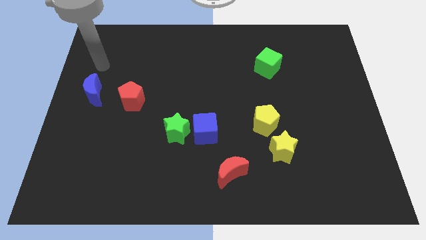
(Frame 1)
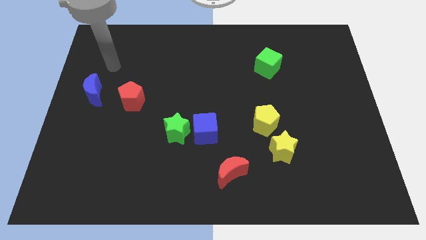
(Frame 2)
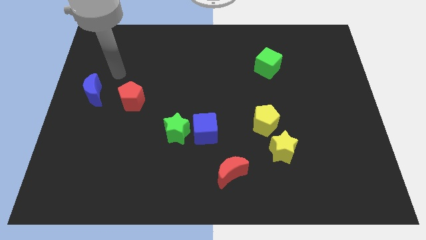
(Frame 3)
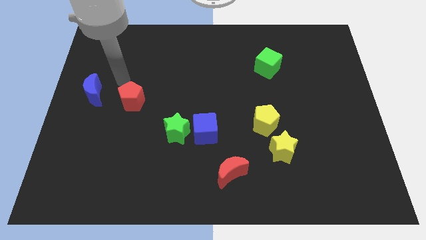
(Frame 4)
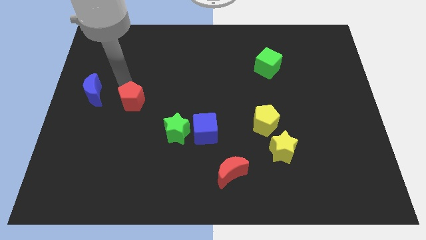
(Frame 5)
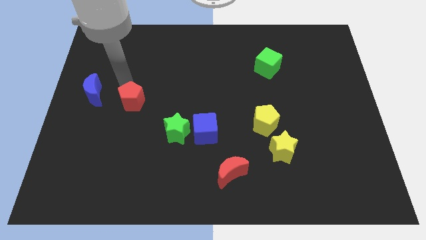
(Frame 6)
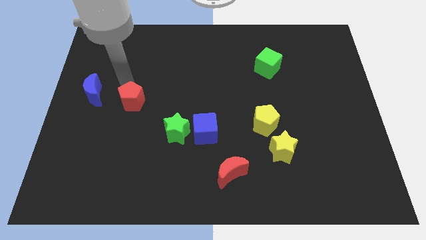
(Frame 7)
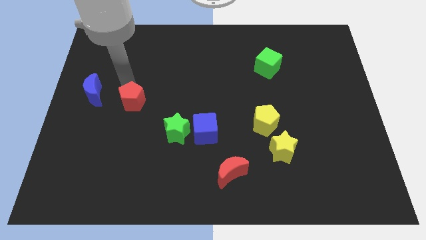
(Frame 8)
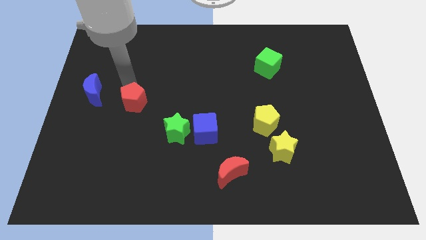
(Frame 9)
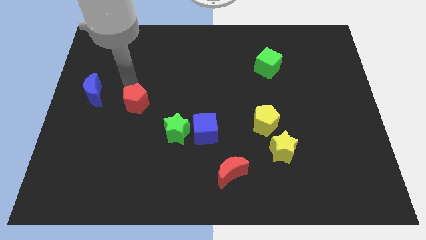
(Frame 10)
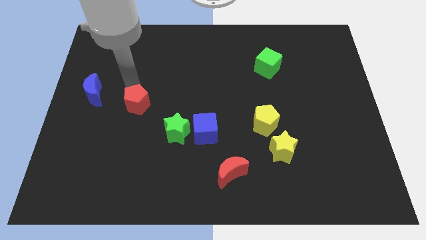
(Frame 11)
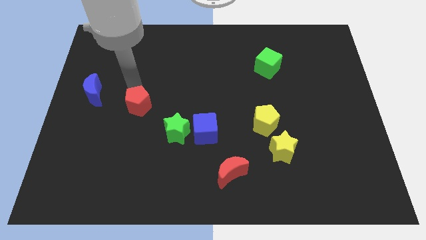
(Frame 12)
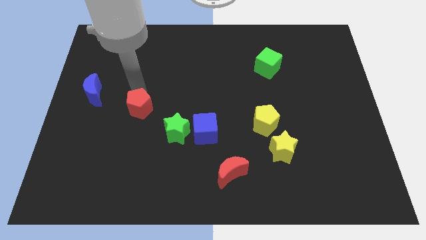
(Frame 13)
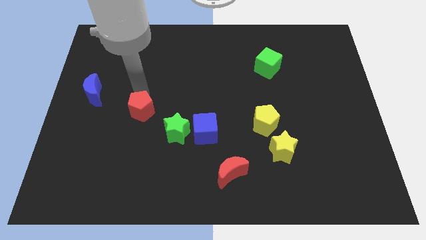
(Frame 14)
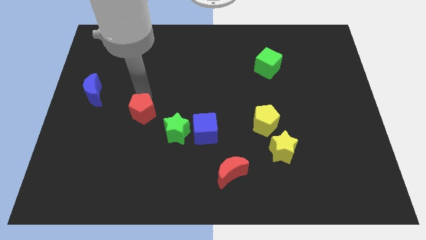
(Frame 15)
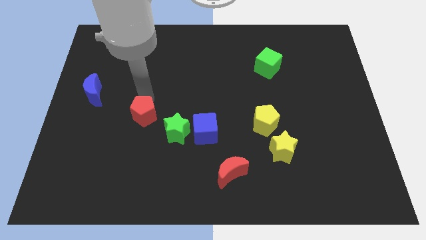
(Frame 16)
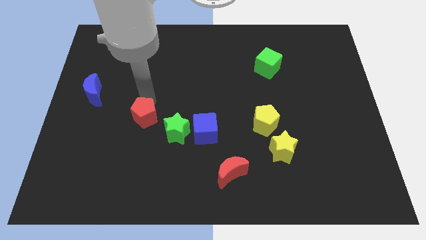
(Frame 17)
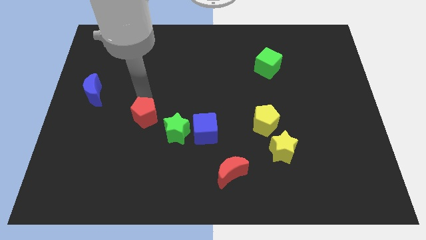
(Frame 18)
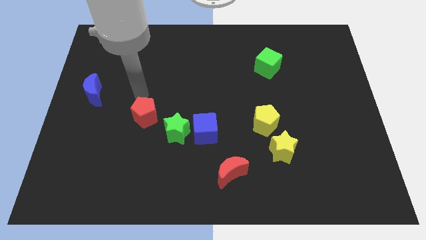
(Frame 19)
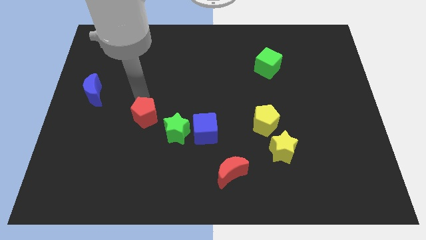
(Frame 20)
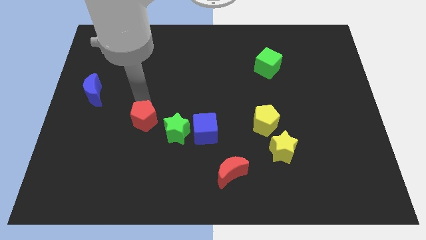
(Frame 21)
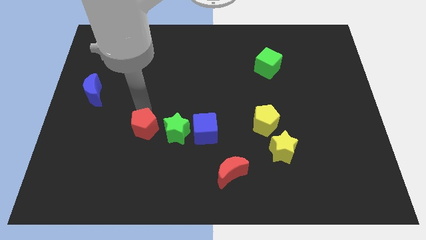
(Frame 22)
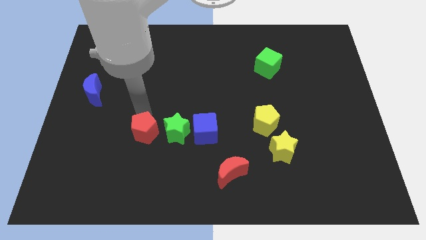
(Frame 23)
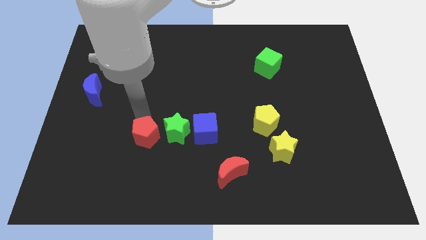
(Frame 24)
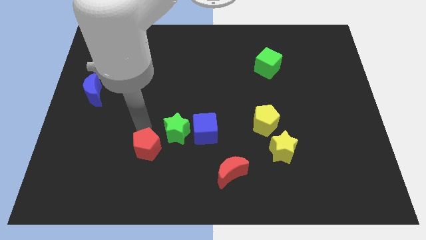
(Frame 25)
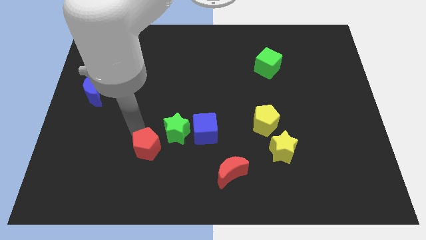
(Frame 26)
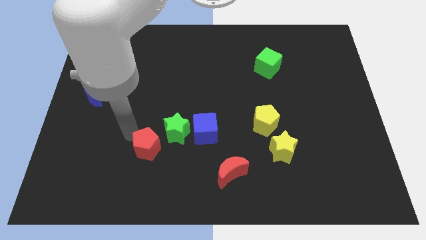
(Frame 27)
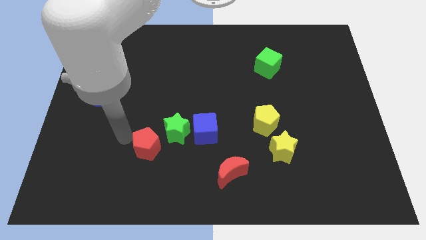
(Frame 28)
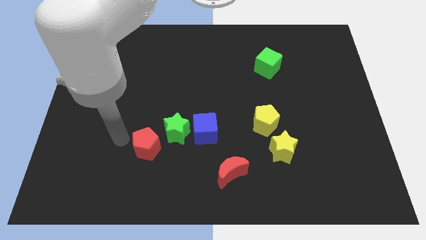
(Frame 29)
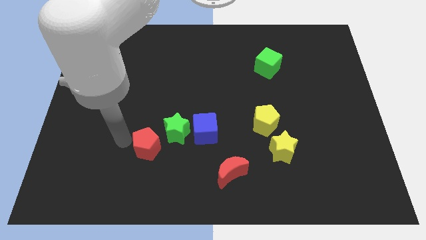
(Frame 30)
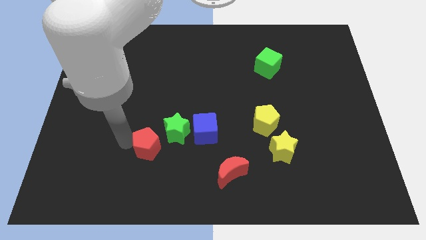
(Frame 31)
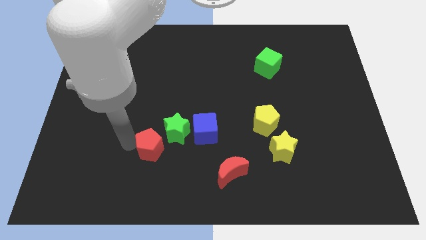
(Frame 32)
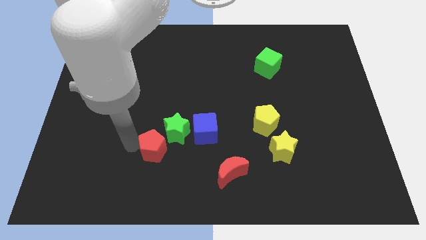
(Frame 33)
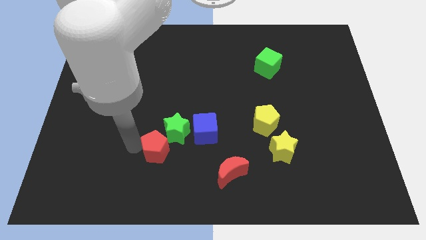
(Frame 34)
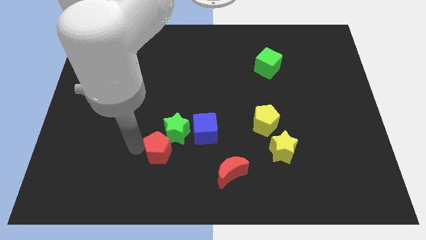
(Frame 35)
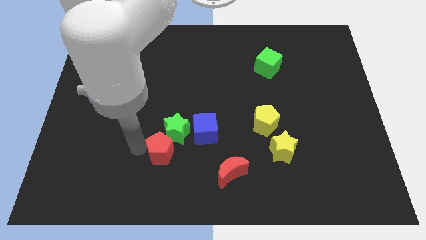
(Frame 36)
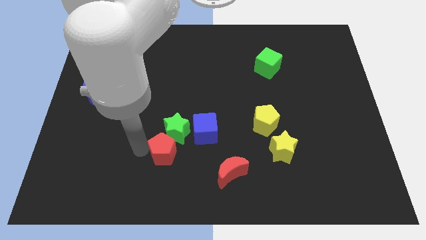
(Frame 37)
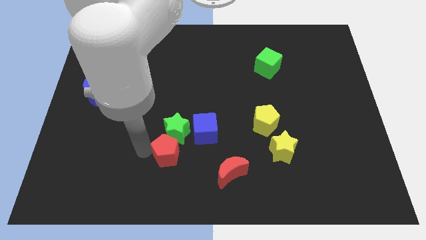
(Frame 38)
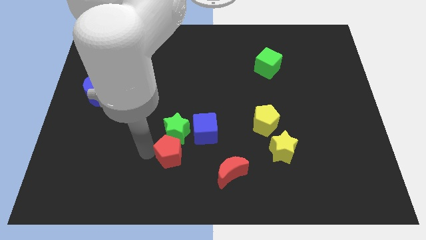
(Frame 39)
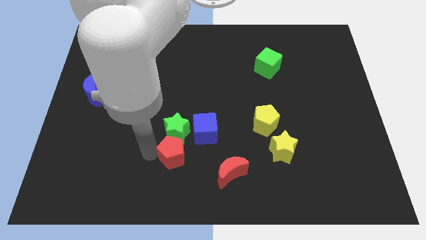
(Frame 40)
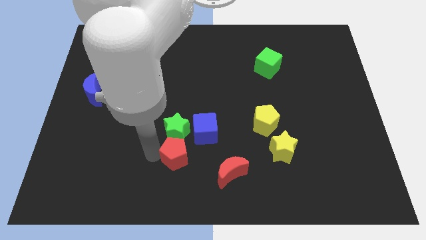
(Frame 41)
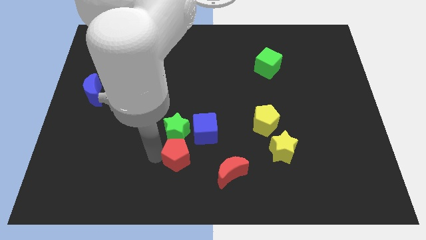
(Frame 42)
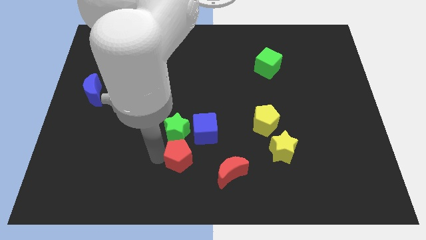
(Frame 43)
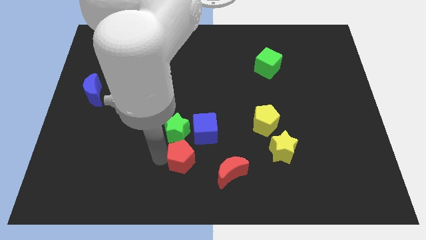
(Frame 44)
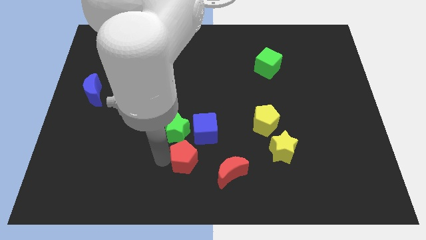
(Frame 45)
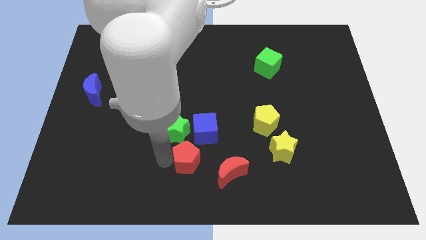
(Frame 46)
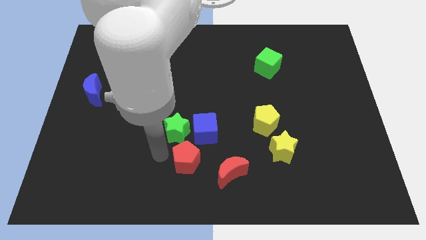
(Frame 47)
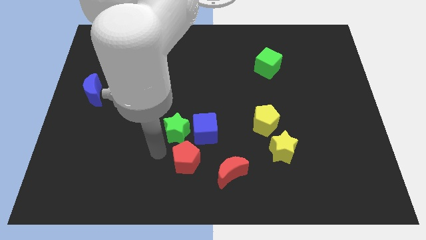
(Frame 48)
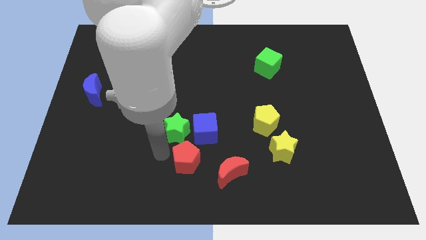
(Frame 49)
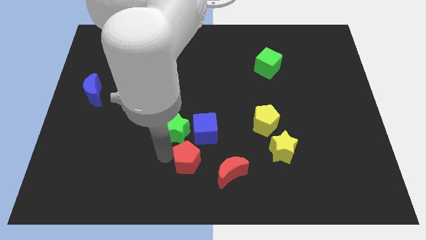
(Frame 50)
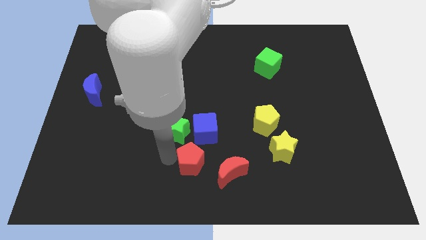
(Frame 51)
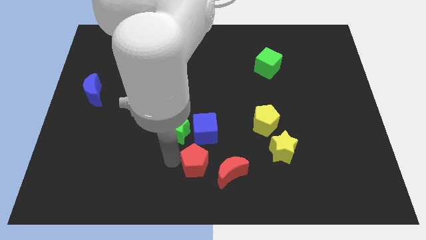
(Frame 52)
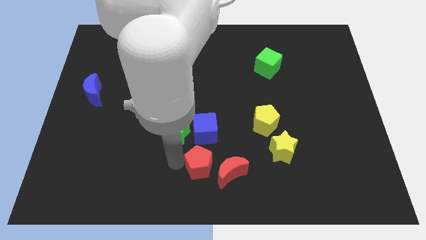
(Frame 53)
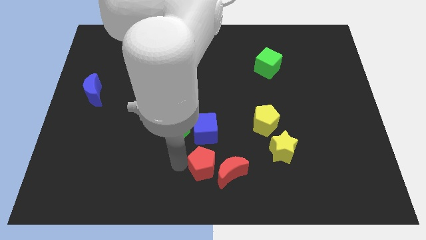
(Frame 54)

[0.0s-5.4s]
slide the red pentagon towards the red moon

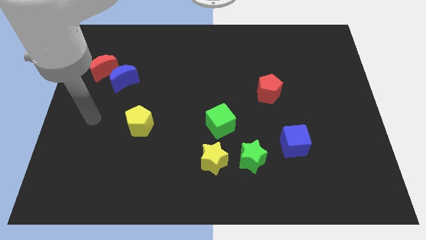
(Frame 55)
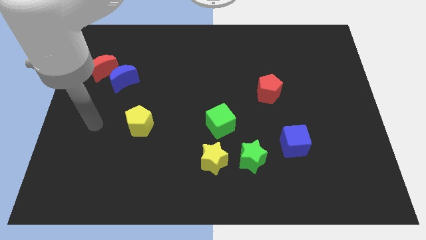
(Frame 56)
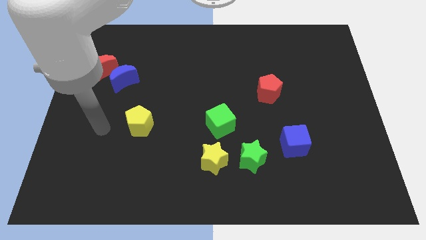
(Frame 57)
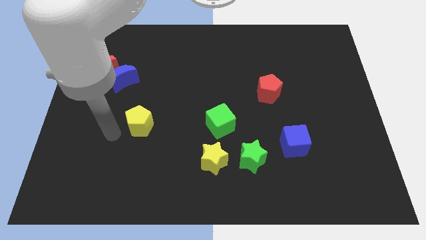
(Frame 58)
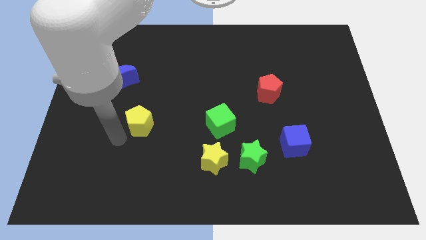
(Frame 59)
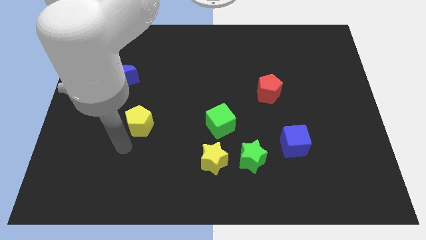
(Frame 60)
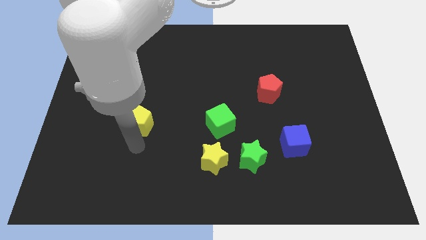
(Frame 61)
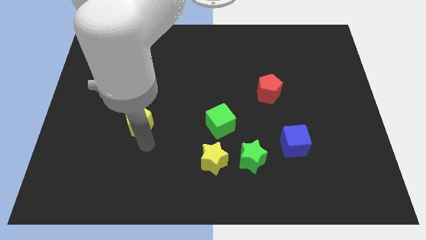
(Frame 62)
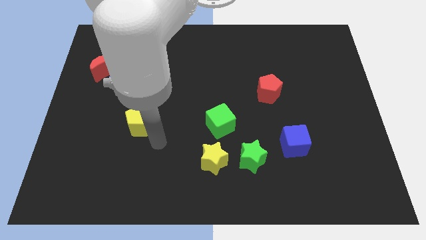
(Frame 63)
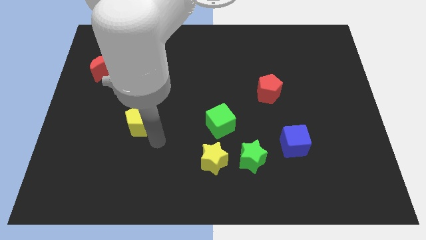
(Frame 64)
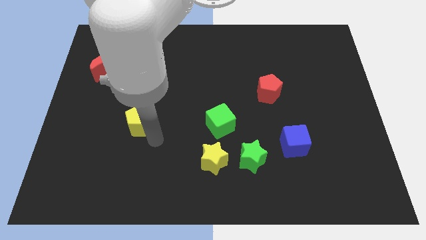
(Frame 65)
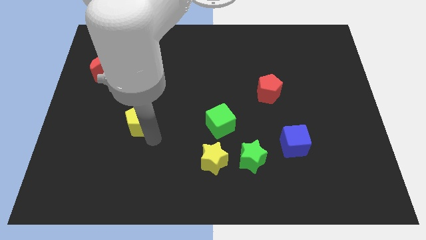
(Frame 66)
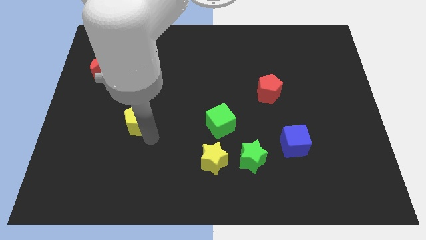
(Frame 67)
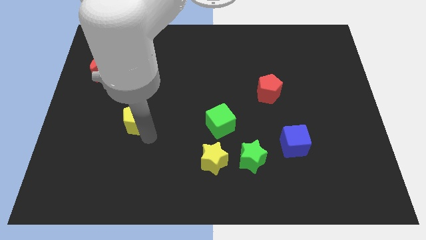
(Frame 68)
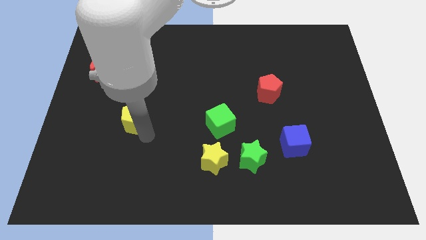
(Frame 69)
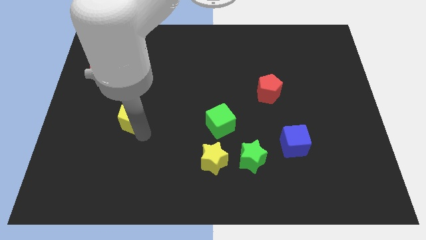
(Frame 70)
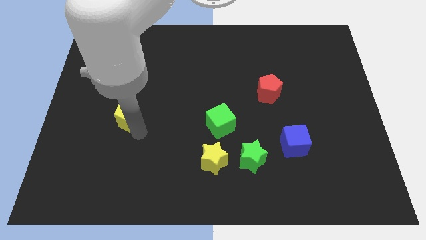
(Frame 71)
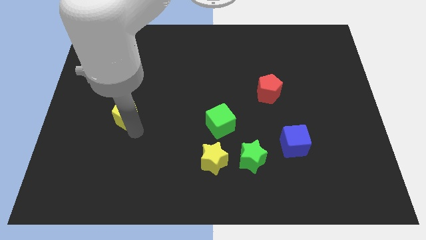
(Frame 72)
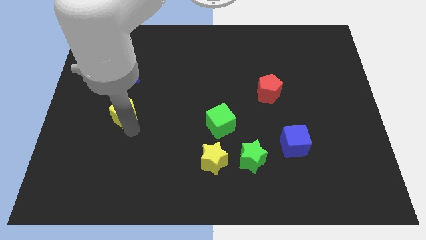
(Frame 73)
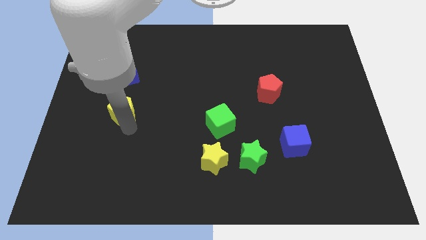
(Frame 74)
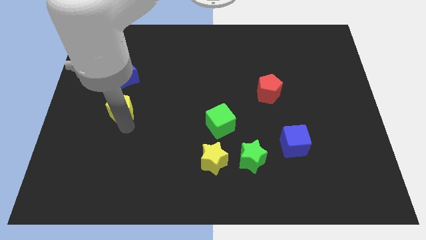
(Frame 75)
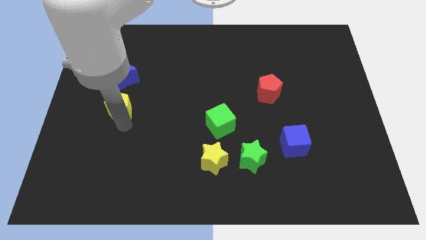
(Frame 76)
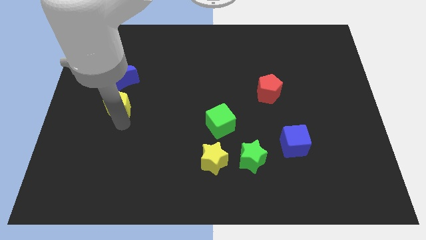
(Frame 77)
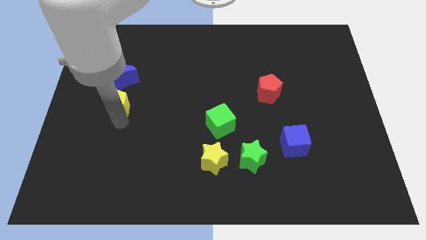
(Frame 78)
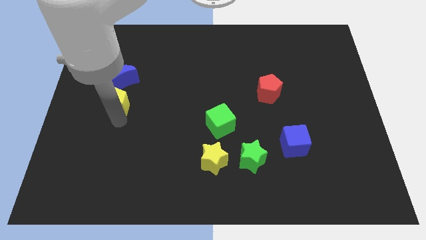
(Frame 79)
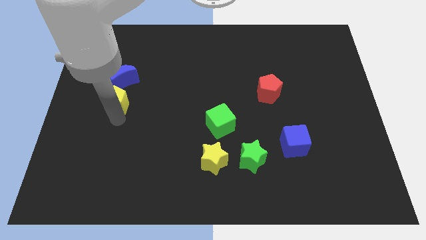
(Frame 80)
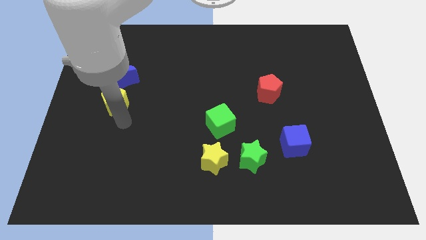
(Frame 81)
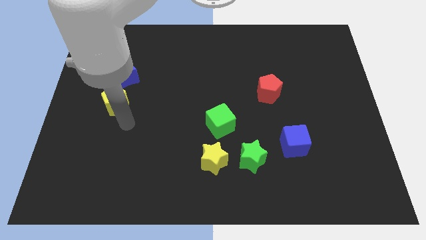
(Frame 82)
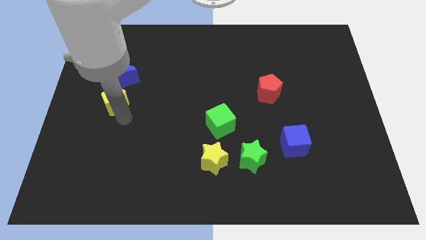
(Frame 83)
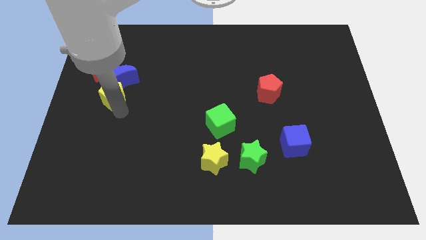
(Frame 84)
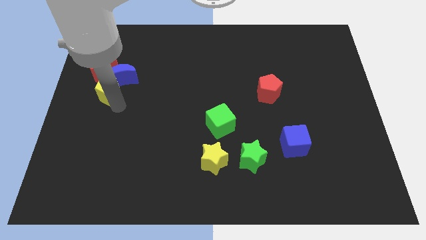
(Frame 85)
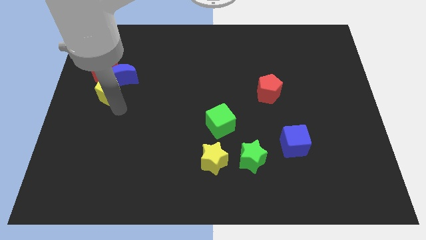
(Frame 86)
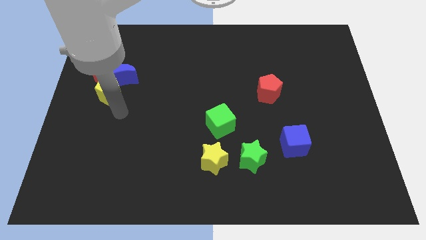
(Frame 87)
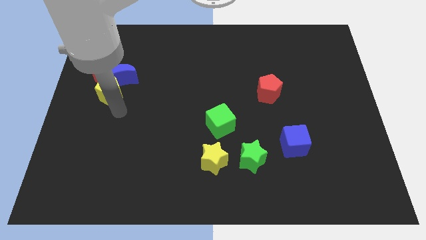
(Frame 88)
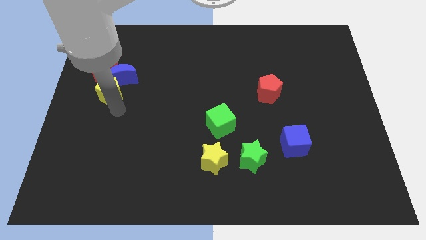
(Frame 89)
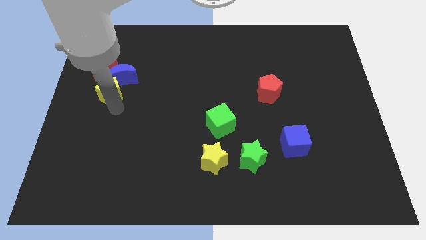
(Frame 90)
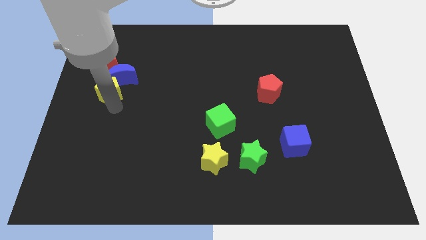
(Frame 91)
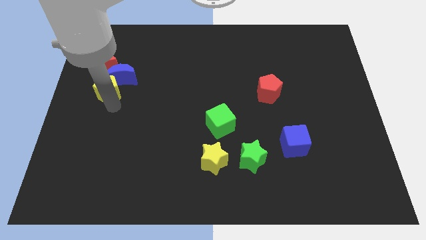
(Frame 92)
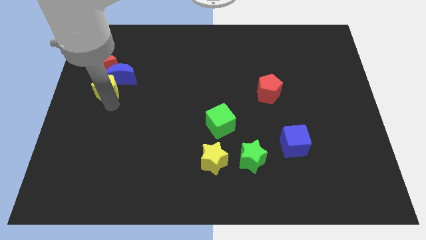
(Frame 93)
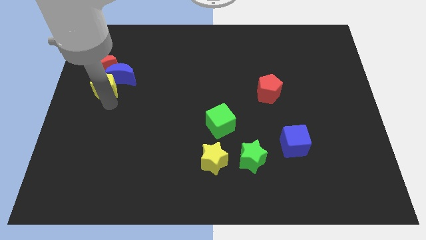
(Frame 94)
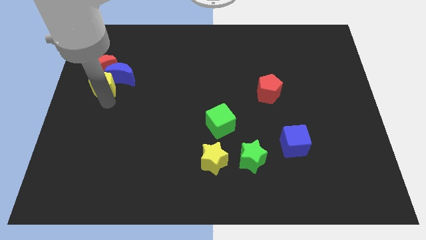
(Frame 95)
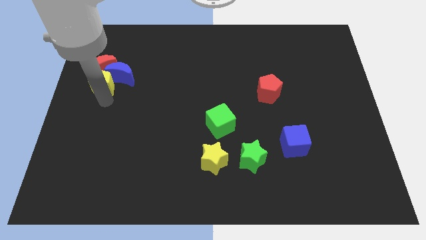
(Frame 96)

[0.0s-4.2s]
slide the yellow pentagon to the red moon
